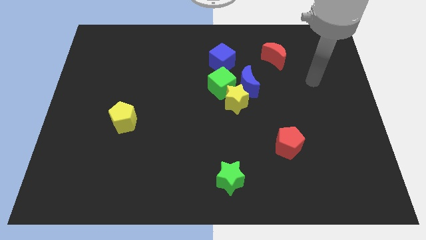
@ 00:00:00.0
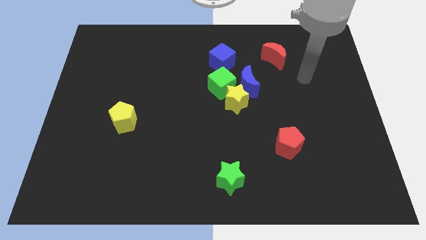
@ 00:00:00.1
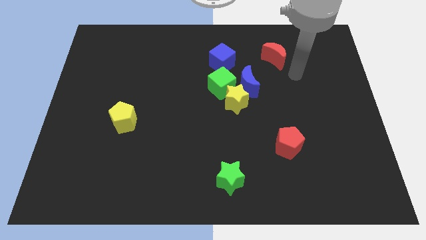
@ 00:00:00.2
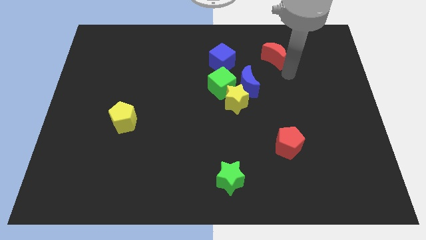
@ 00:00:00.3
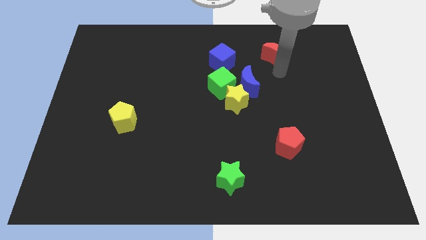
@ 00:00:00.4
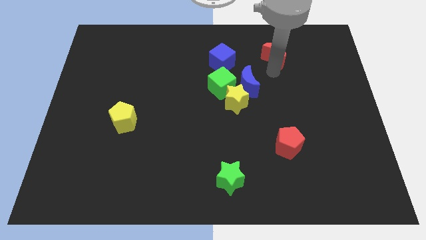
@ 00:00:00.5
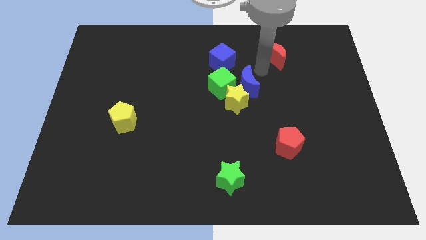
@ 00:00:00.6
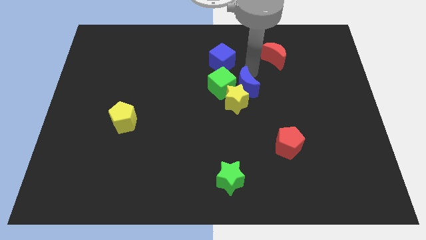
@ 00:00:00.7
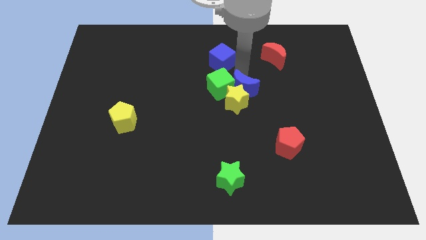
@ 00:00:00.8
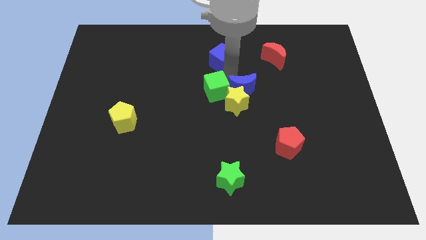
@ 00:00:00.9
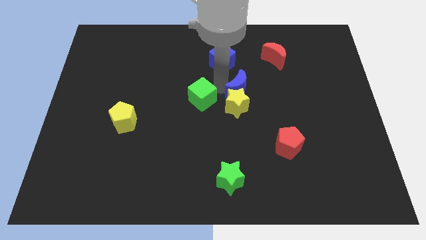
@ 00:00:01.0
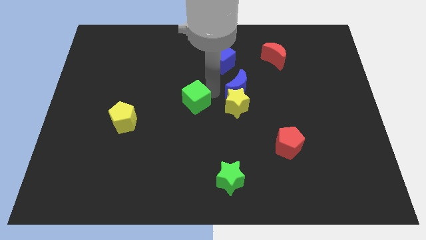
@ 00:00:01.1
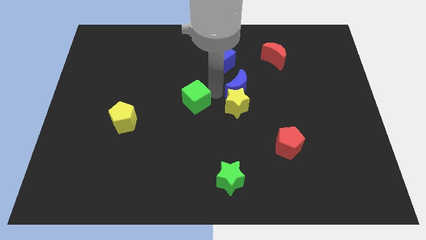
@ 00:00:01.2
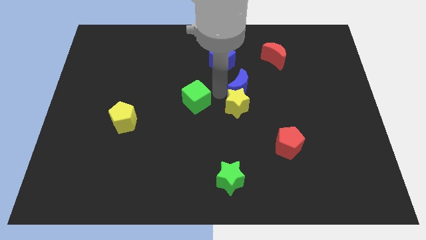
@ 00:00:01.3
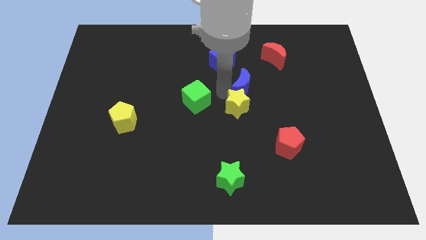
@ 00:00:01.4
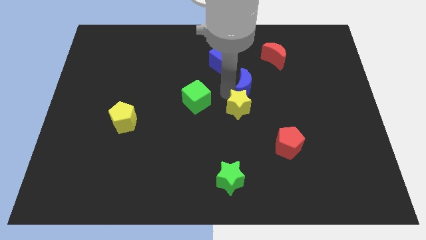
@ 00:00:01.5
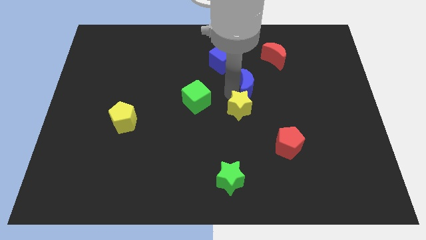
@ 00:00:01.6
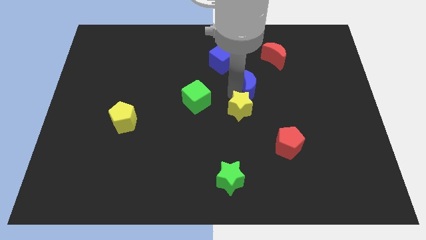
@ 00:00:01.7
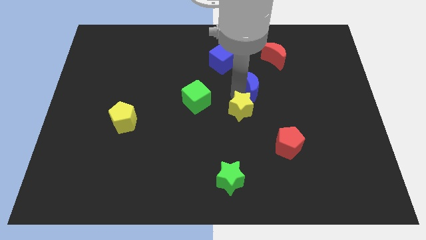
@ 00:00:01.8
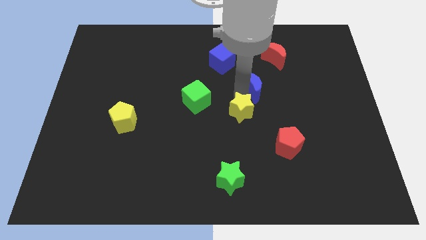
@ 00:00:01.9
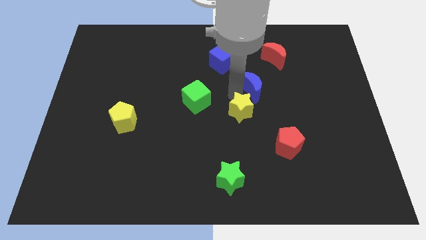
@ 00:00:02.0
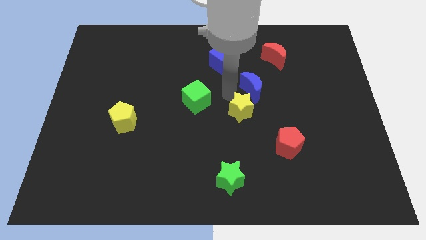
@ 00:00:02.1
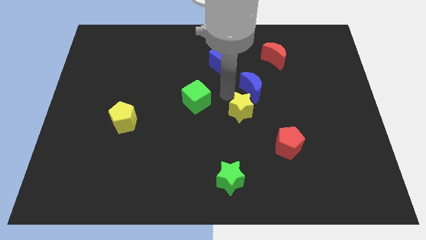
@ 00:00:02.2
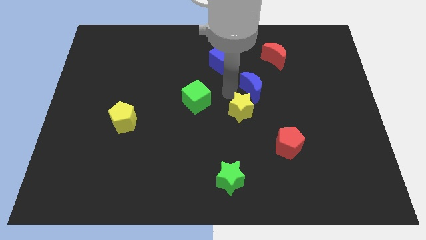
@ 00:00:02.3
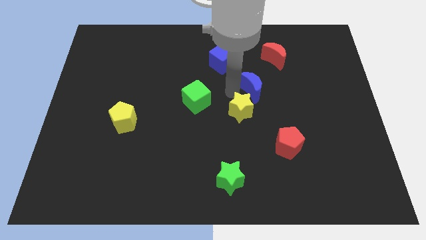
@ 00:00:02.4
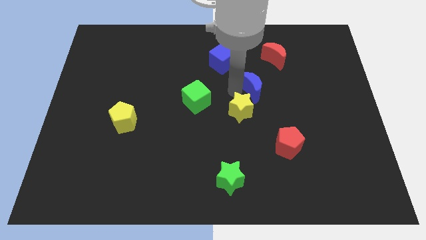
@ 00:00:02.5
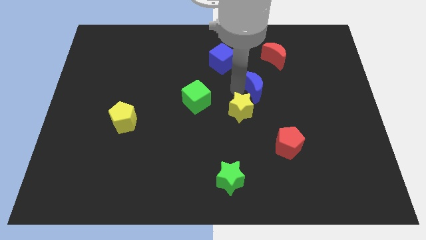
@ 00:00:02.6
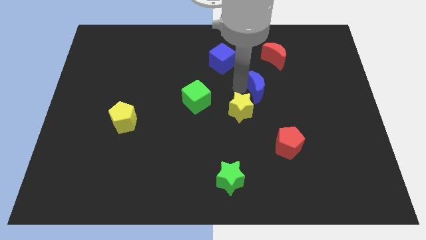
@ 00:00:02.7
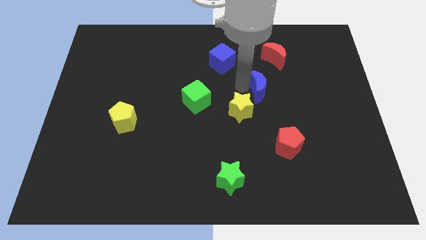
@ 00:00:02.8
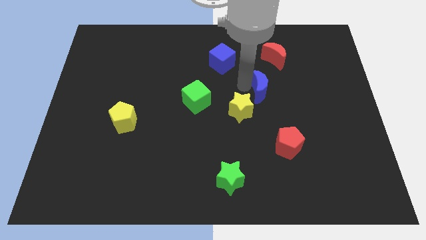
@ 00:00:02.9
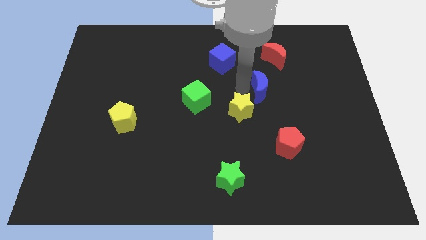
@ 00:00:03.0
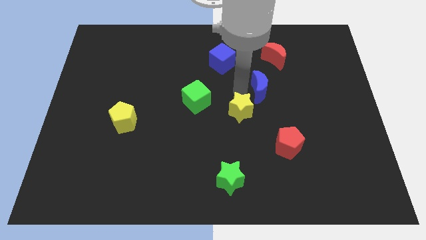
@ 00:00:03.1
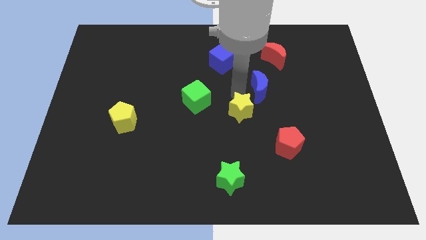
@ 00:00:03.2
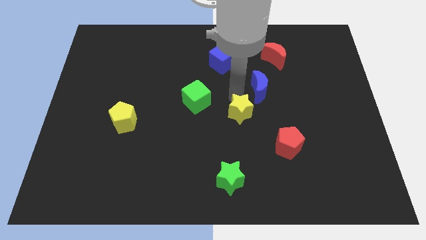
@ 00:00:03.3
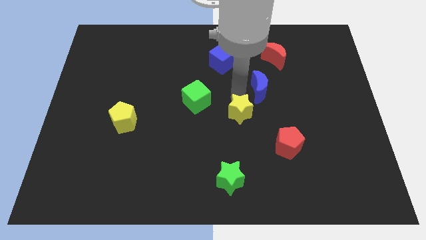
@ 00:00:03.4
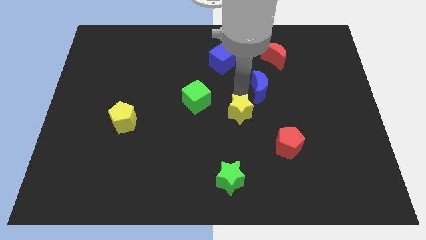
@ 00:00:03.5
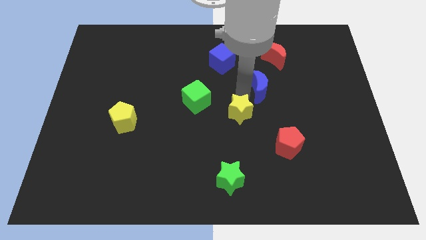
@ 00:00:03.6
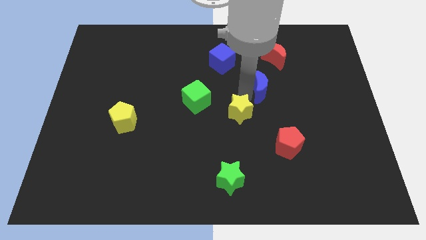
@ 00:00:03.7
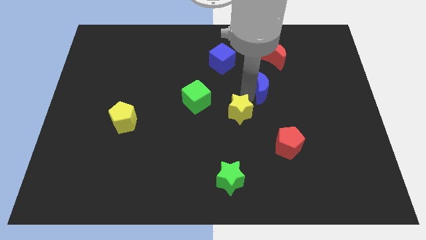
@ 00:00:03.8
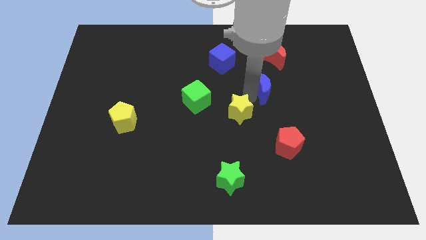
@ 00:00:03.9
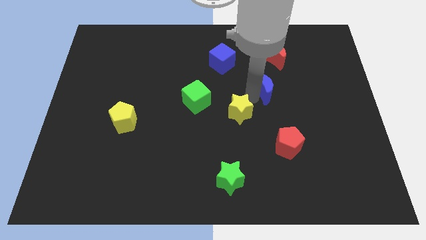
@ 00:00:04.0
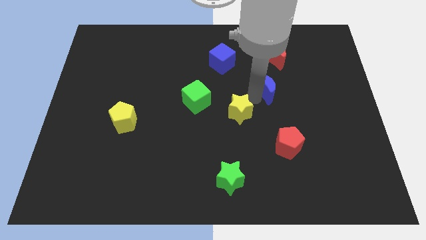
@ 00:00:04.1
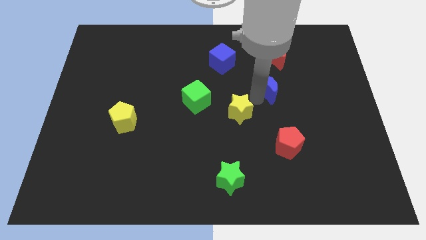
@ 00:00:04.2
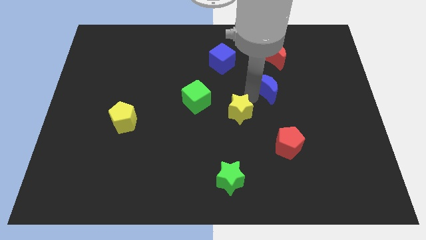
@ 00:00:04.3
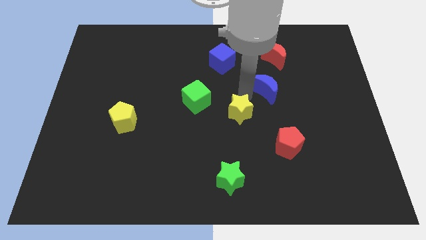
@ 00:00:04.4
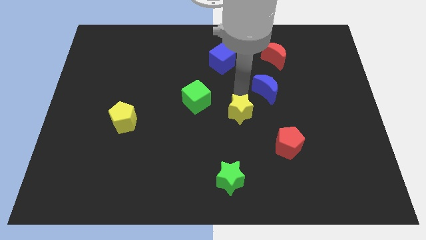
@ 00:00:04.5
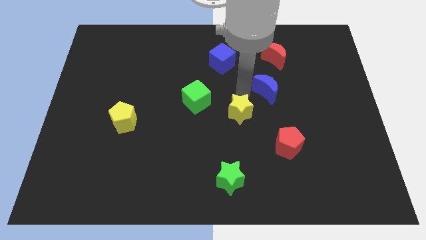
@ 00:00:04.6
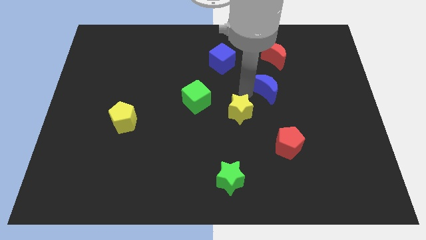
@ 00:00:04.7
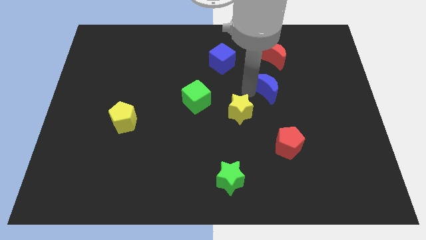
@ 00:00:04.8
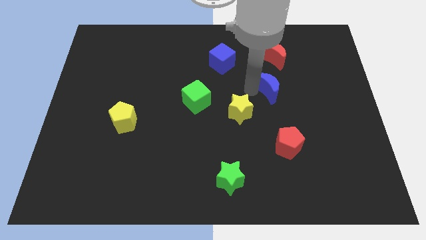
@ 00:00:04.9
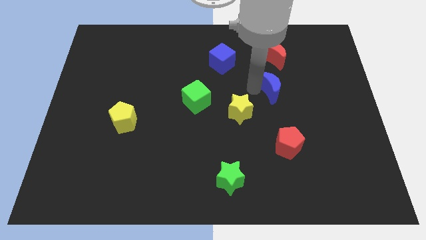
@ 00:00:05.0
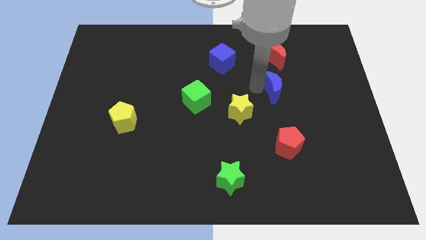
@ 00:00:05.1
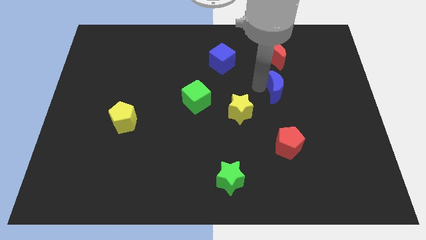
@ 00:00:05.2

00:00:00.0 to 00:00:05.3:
push the blue moon a bit right

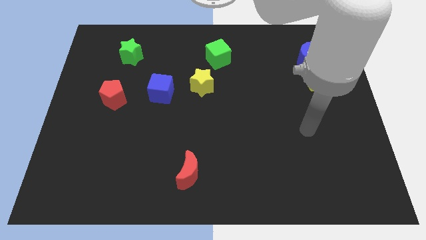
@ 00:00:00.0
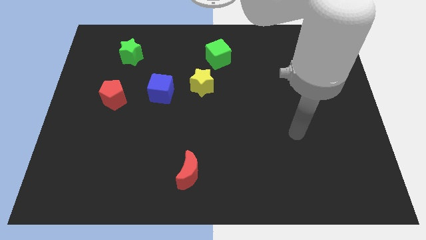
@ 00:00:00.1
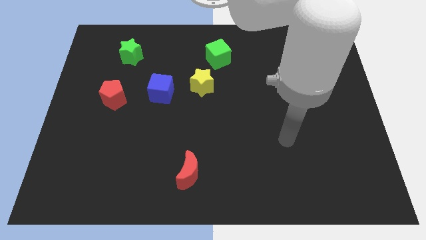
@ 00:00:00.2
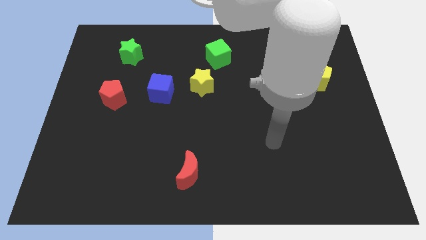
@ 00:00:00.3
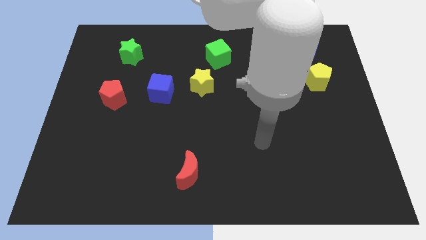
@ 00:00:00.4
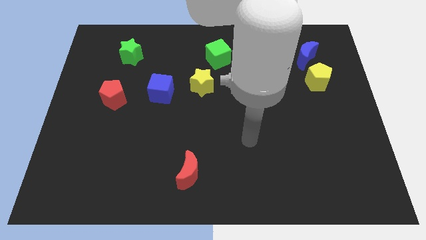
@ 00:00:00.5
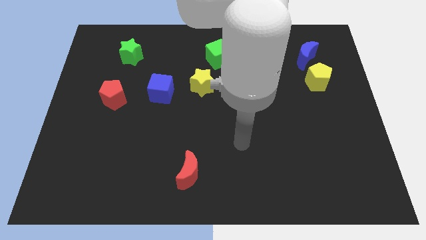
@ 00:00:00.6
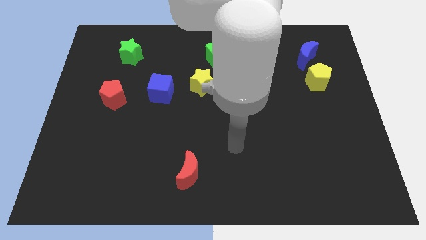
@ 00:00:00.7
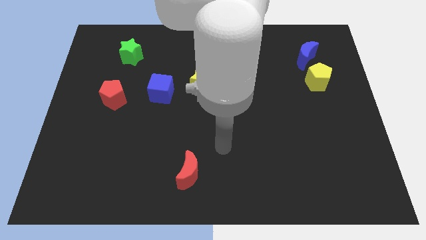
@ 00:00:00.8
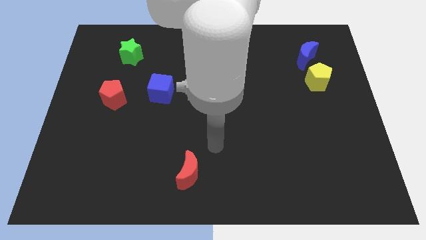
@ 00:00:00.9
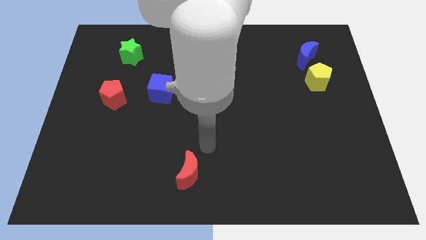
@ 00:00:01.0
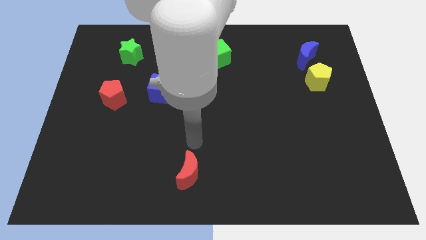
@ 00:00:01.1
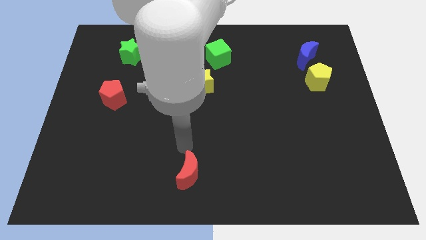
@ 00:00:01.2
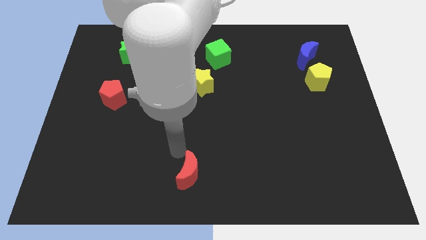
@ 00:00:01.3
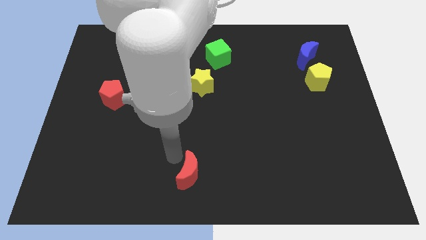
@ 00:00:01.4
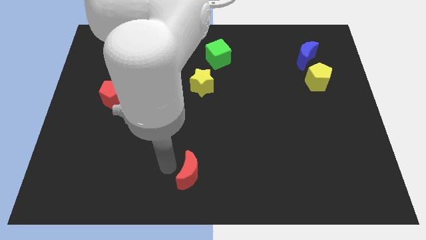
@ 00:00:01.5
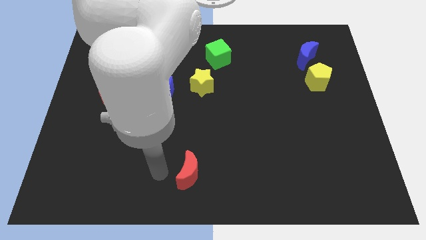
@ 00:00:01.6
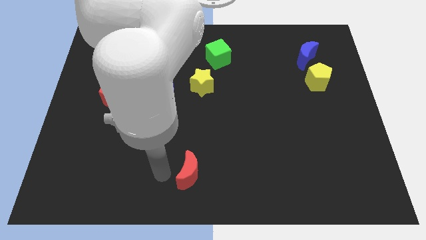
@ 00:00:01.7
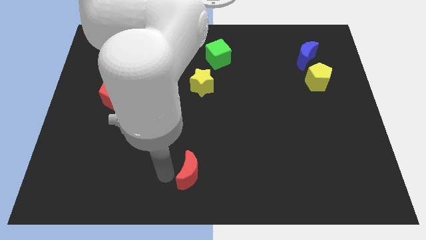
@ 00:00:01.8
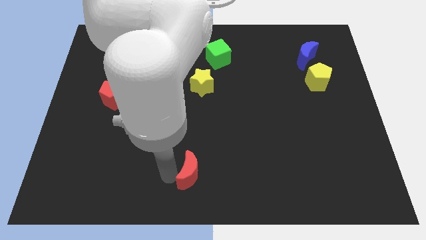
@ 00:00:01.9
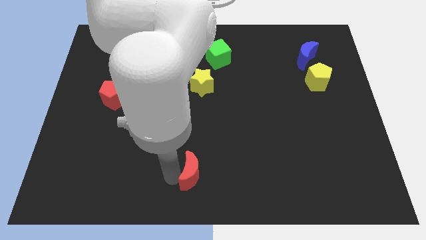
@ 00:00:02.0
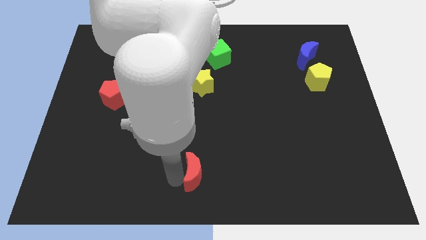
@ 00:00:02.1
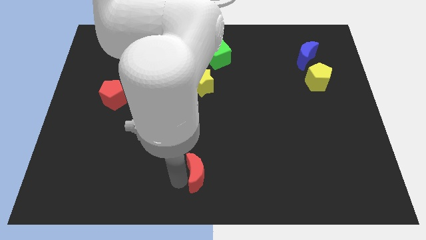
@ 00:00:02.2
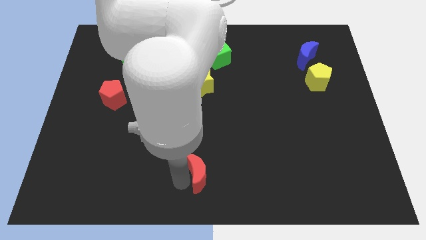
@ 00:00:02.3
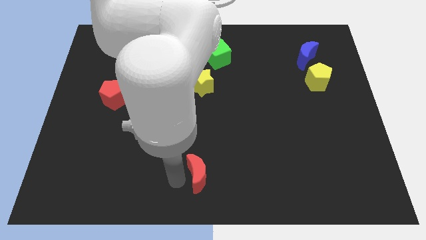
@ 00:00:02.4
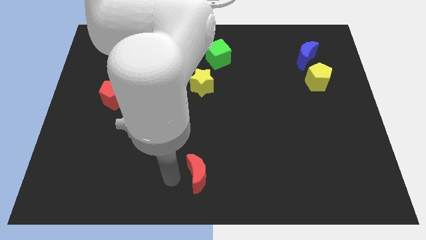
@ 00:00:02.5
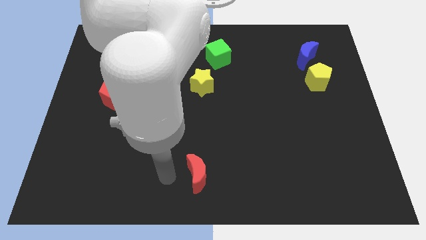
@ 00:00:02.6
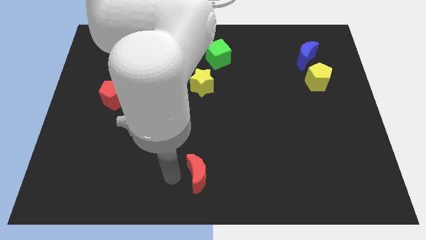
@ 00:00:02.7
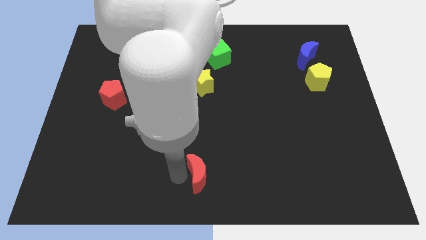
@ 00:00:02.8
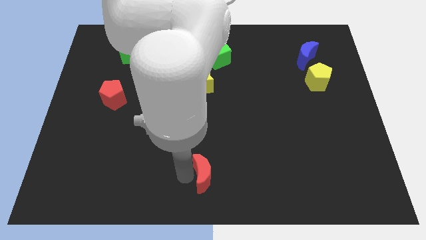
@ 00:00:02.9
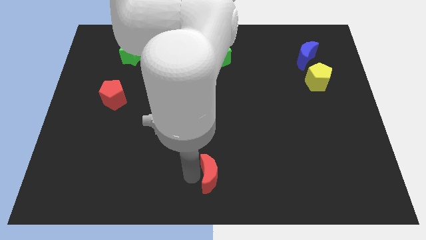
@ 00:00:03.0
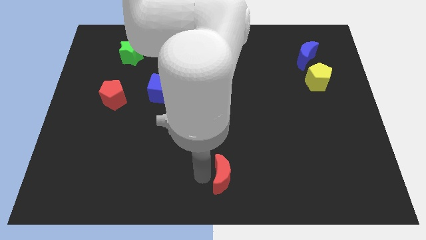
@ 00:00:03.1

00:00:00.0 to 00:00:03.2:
move the red moon a little bit right
